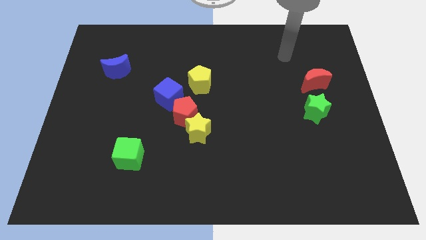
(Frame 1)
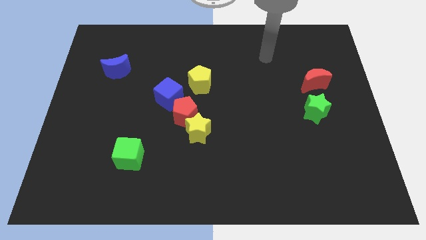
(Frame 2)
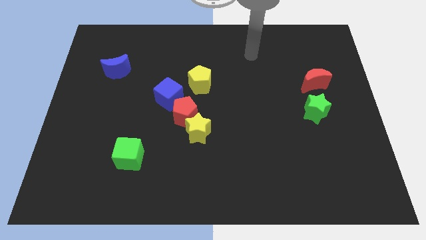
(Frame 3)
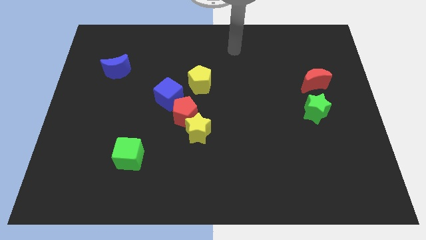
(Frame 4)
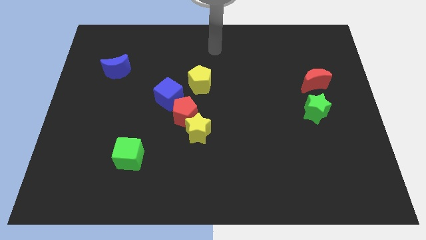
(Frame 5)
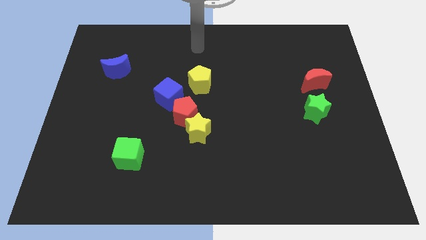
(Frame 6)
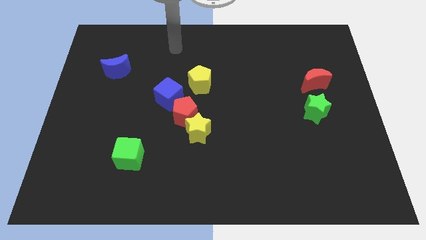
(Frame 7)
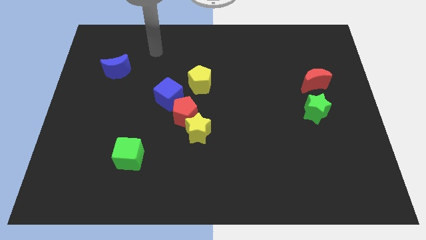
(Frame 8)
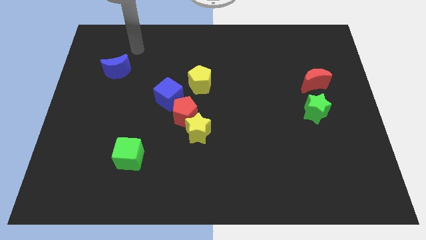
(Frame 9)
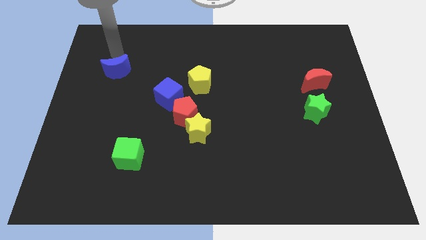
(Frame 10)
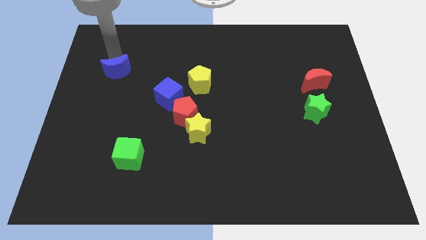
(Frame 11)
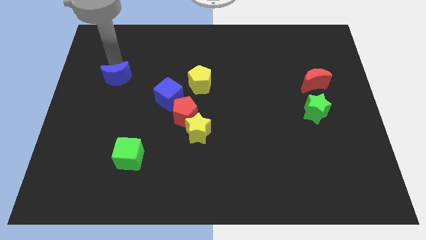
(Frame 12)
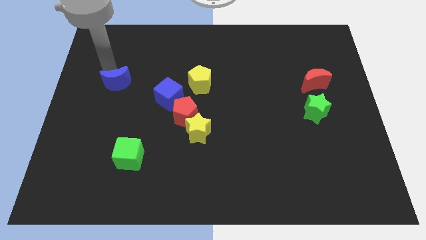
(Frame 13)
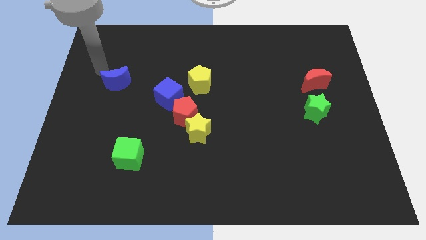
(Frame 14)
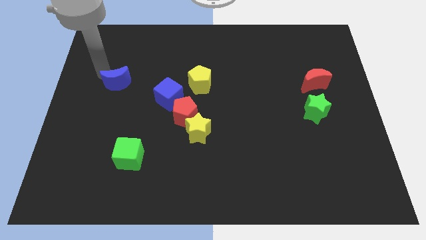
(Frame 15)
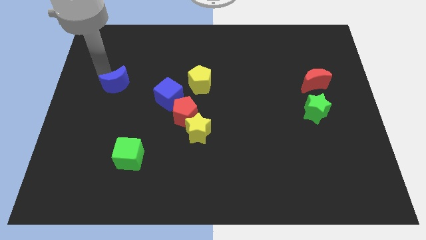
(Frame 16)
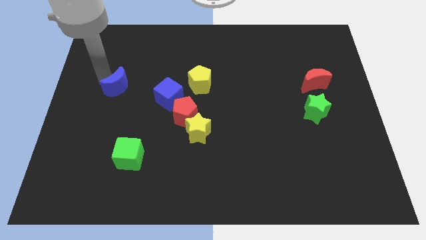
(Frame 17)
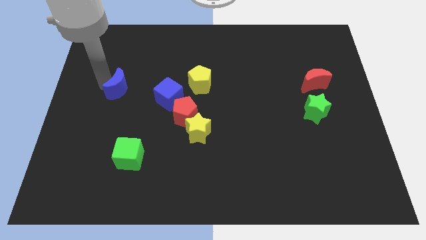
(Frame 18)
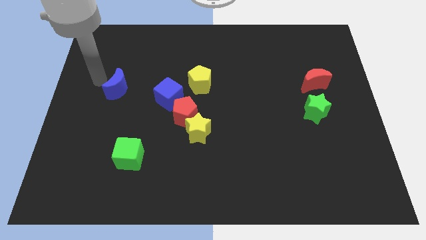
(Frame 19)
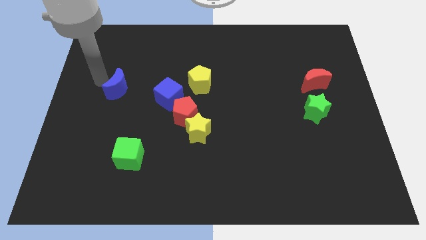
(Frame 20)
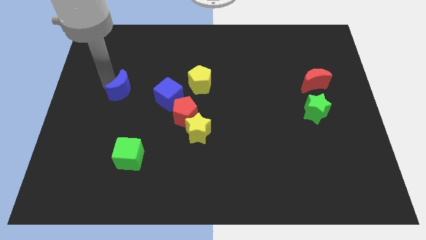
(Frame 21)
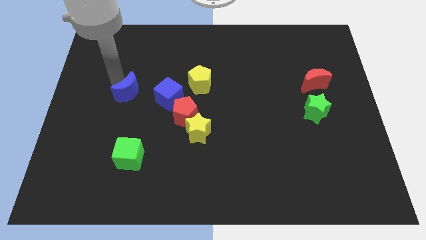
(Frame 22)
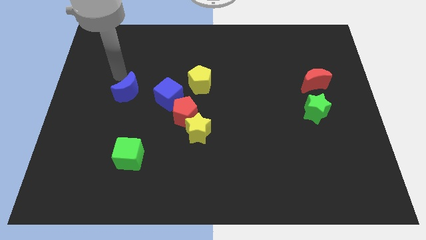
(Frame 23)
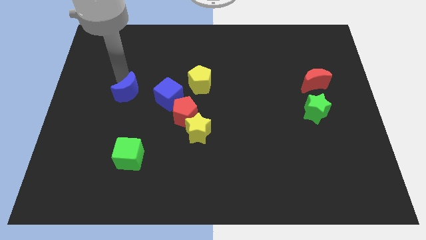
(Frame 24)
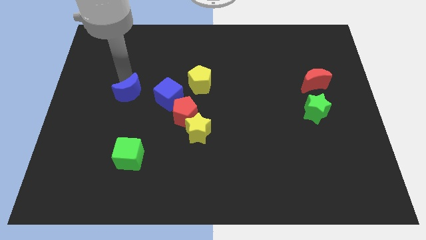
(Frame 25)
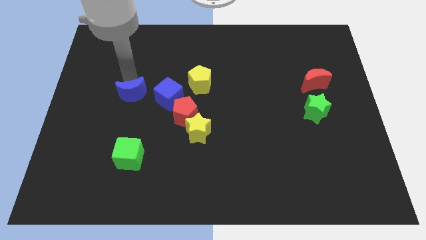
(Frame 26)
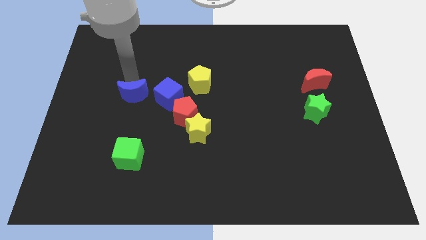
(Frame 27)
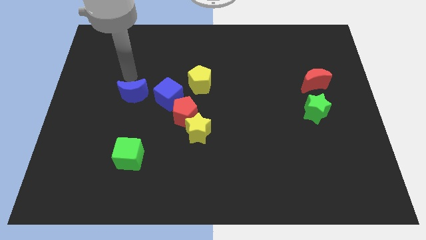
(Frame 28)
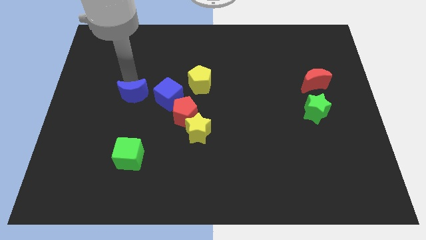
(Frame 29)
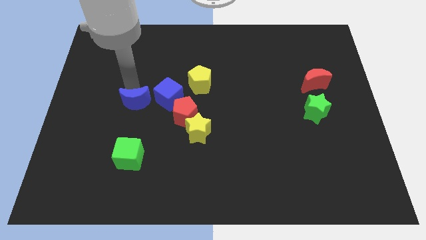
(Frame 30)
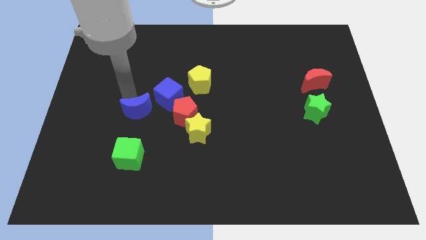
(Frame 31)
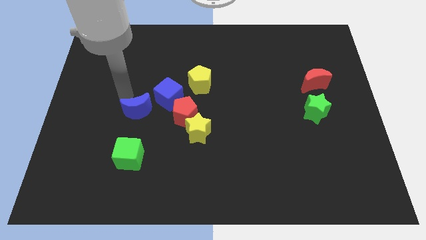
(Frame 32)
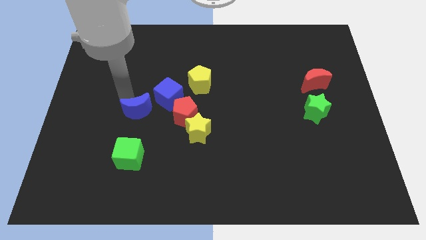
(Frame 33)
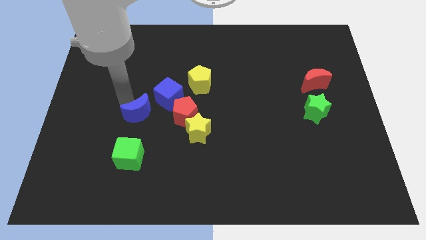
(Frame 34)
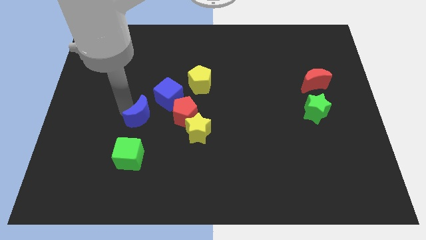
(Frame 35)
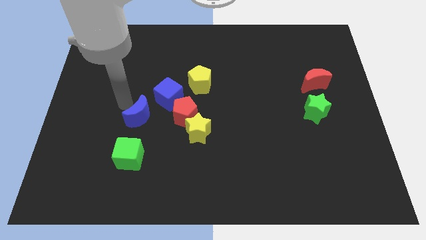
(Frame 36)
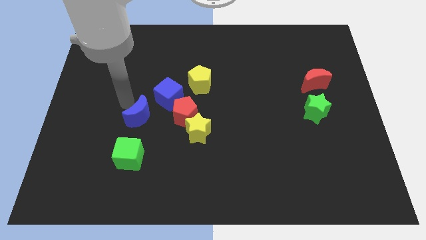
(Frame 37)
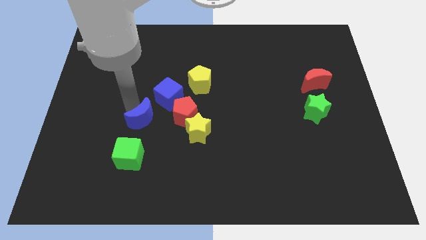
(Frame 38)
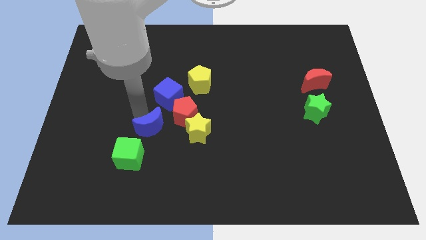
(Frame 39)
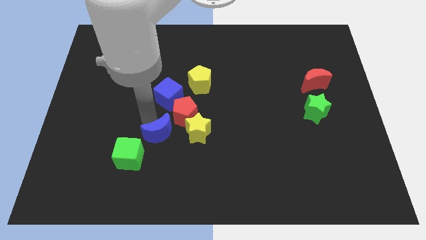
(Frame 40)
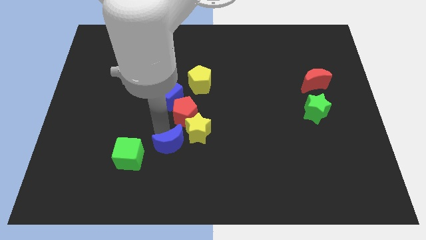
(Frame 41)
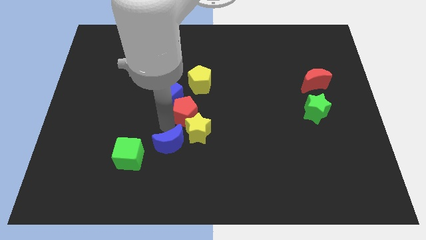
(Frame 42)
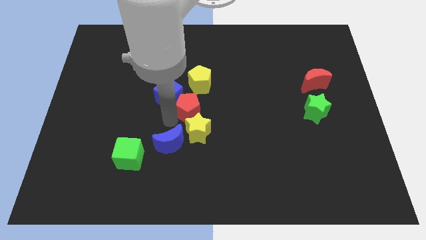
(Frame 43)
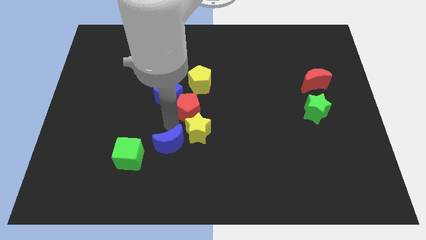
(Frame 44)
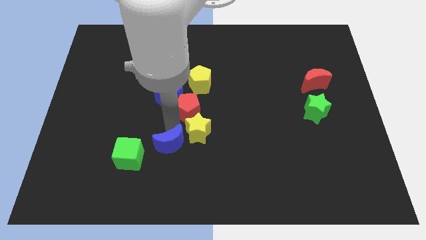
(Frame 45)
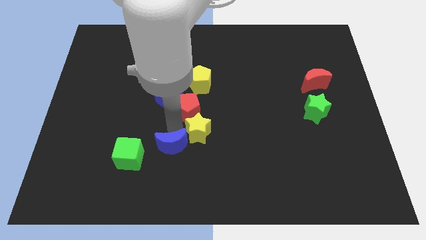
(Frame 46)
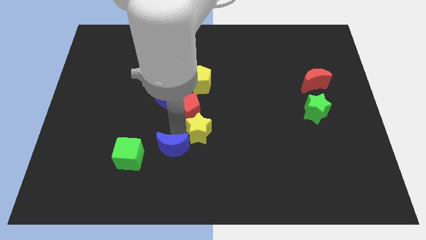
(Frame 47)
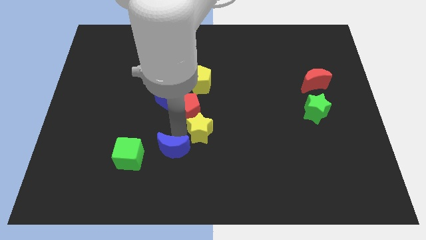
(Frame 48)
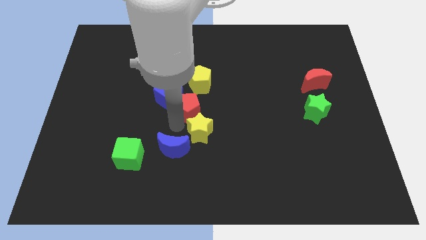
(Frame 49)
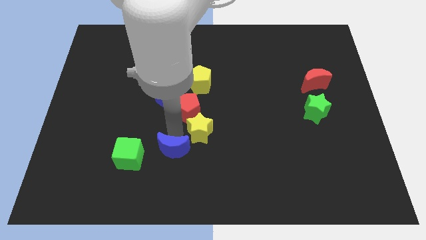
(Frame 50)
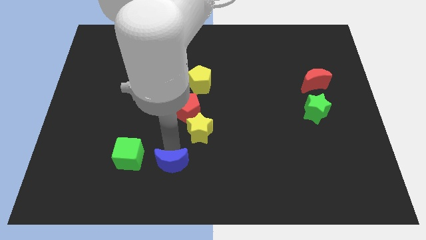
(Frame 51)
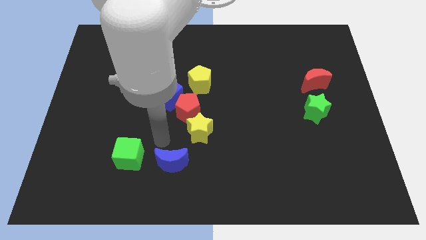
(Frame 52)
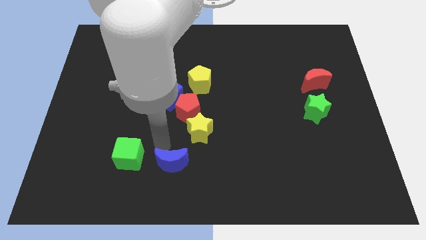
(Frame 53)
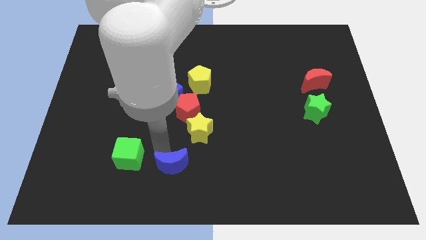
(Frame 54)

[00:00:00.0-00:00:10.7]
push the blue moon to the bottom

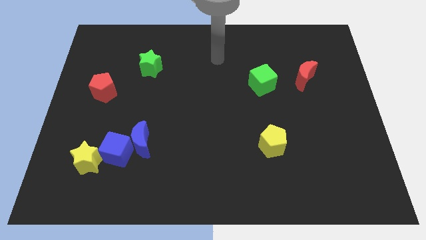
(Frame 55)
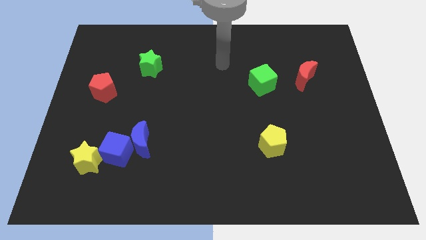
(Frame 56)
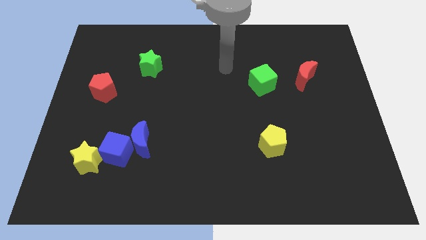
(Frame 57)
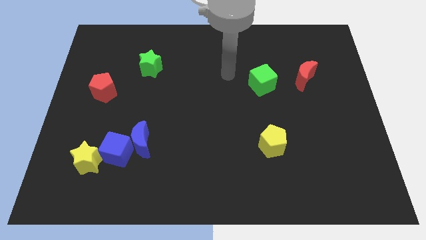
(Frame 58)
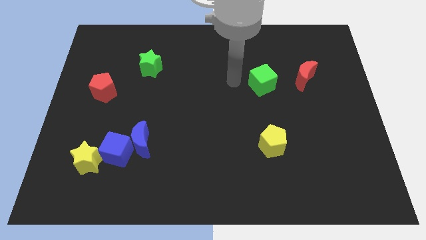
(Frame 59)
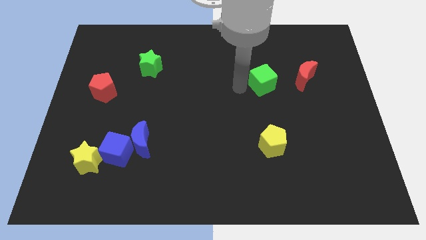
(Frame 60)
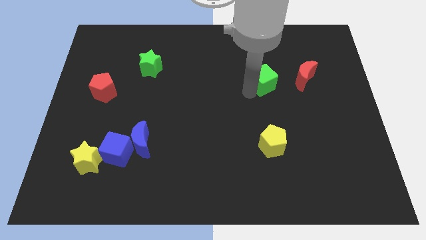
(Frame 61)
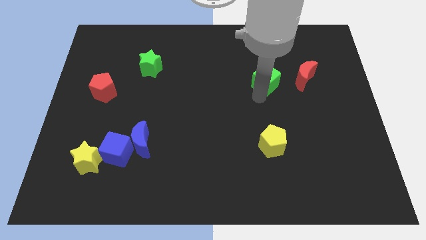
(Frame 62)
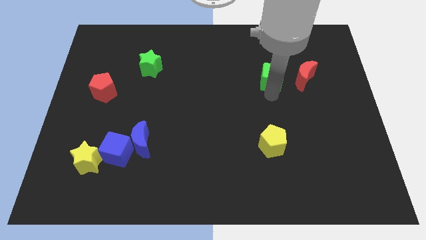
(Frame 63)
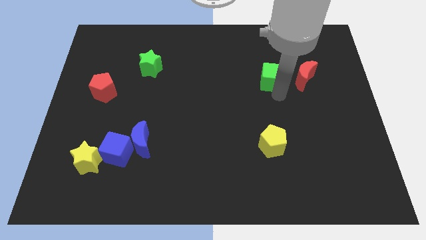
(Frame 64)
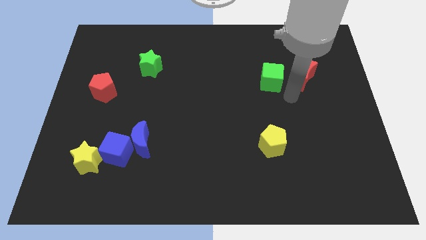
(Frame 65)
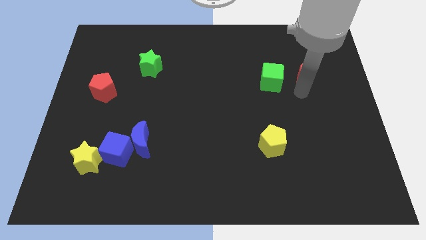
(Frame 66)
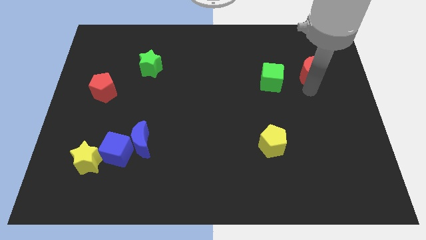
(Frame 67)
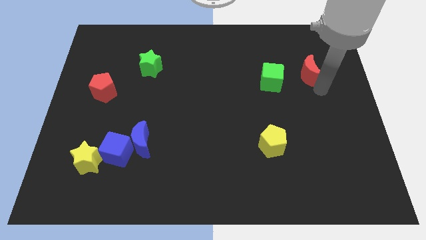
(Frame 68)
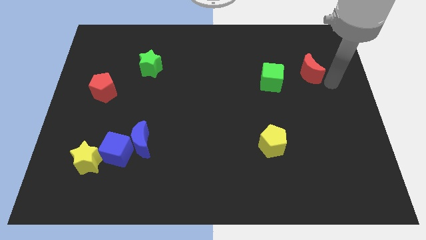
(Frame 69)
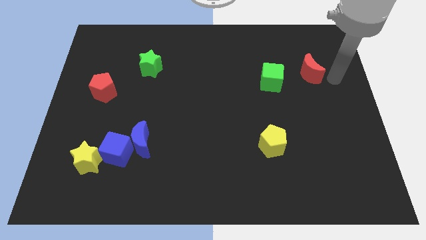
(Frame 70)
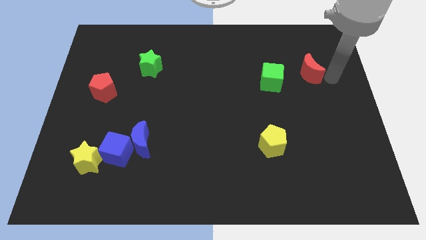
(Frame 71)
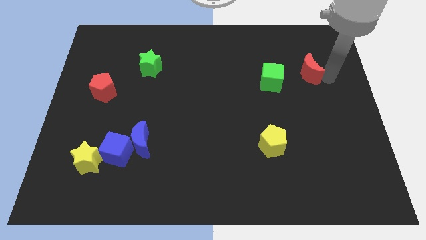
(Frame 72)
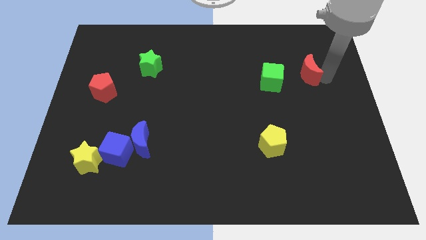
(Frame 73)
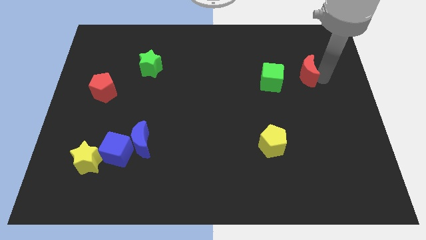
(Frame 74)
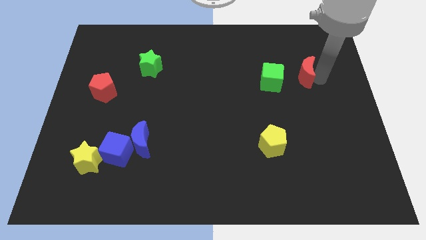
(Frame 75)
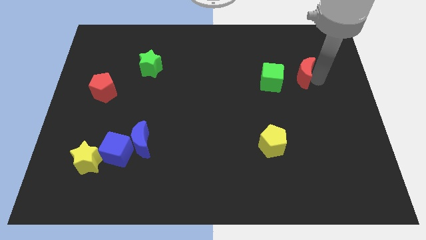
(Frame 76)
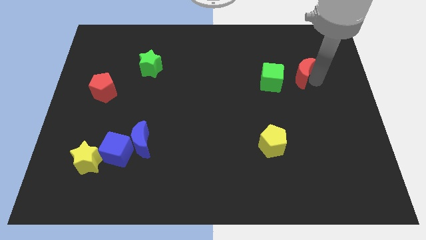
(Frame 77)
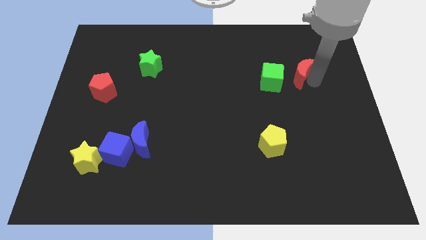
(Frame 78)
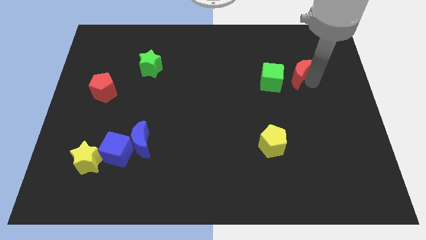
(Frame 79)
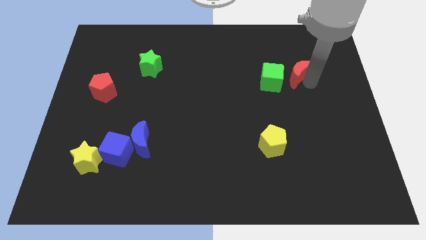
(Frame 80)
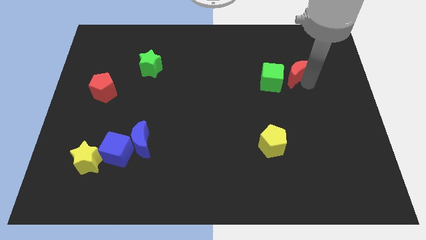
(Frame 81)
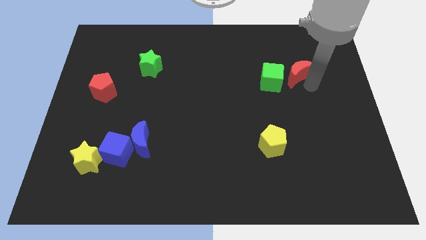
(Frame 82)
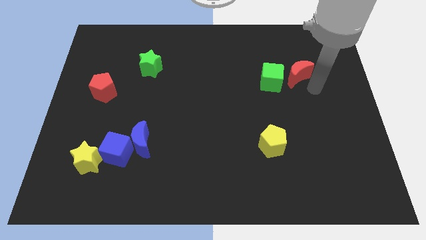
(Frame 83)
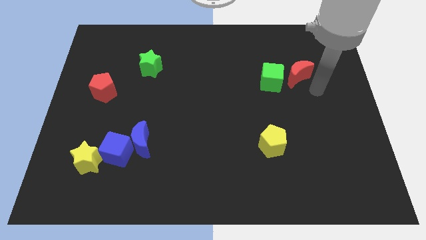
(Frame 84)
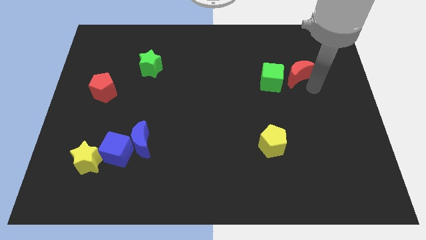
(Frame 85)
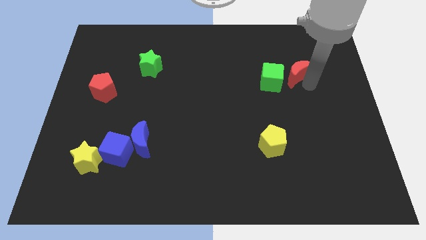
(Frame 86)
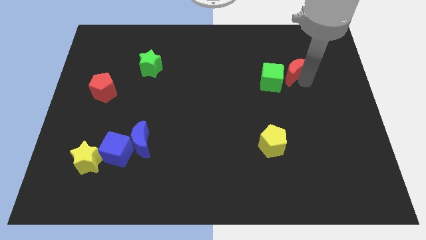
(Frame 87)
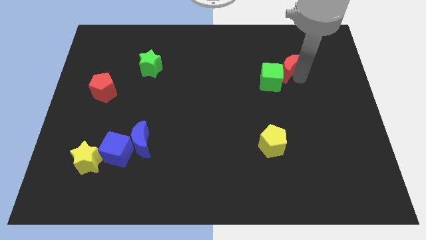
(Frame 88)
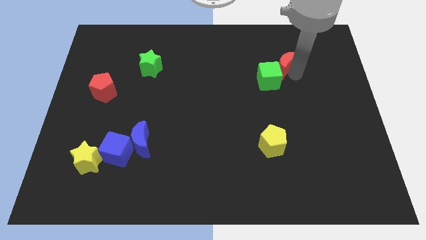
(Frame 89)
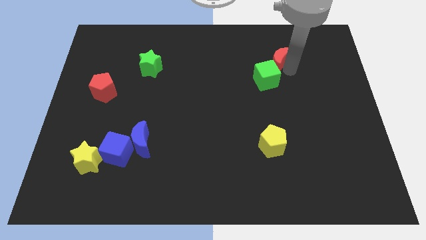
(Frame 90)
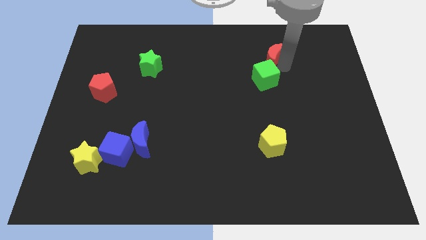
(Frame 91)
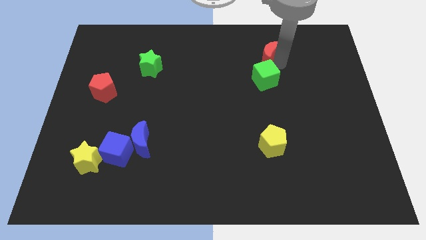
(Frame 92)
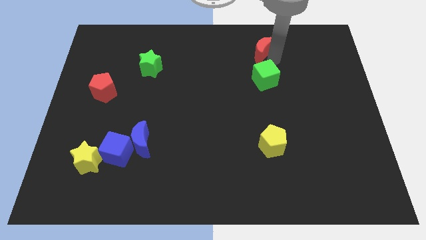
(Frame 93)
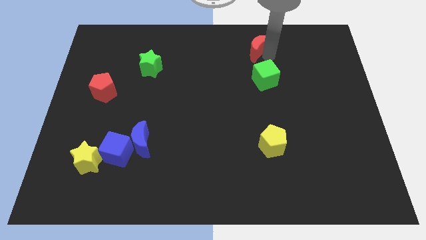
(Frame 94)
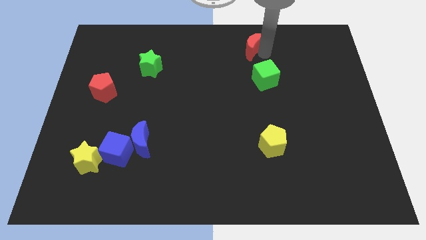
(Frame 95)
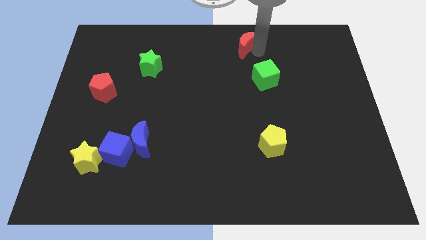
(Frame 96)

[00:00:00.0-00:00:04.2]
put the red moon to the top side
